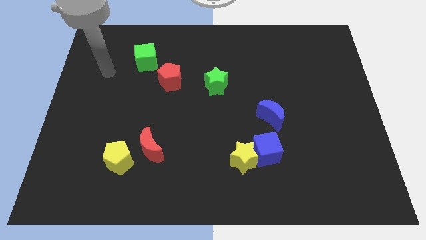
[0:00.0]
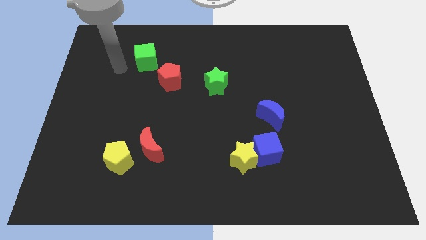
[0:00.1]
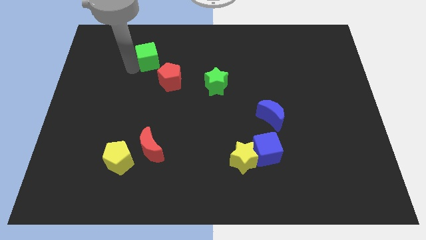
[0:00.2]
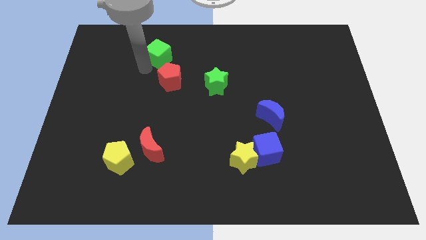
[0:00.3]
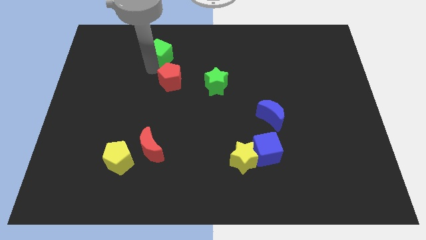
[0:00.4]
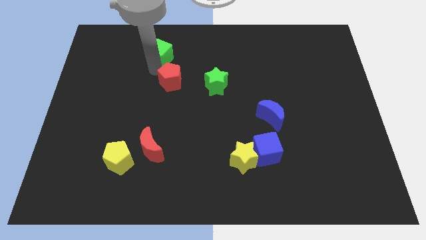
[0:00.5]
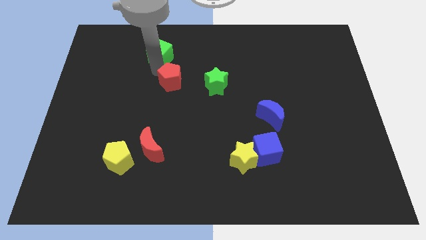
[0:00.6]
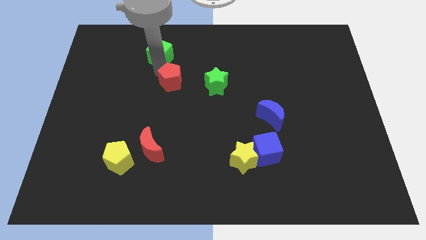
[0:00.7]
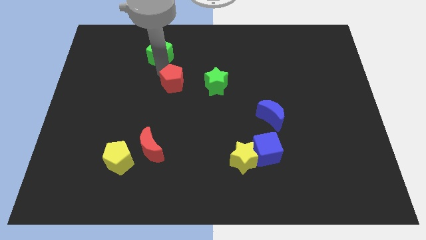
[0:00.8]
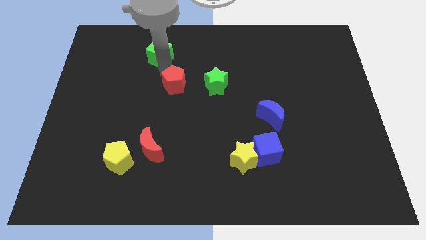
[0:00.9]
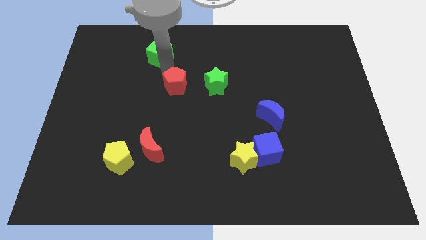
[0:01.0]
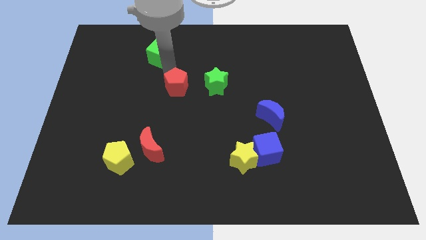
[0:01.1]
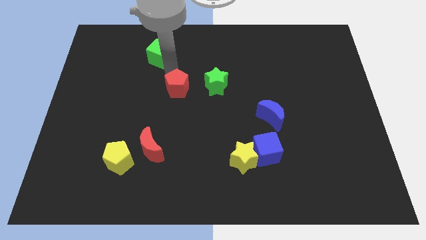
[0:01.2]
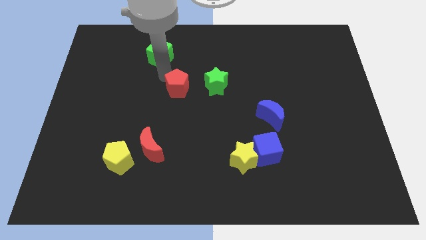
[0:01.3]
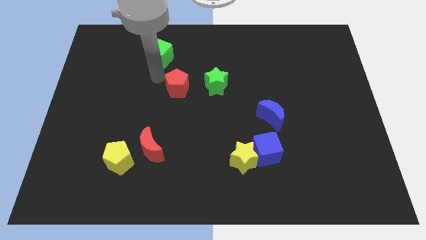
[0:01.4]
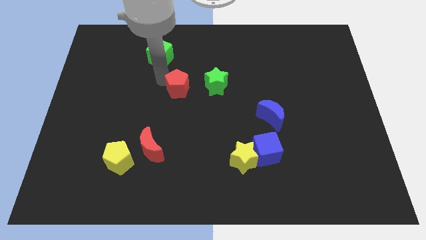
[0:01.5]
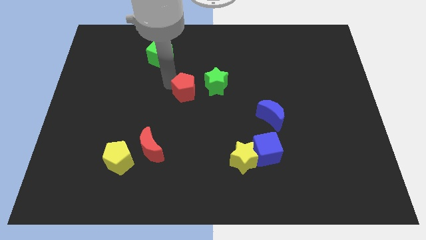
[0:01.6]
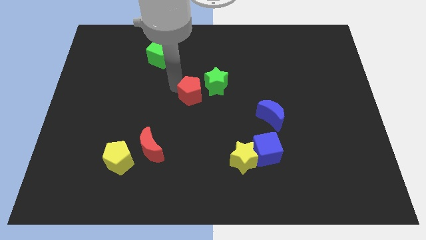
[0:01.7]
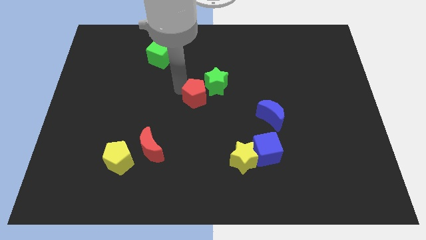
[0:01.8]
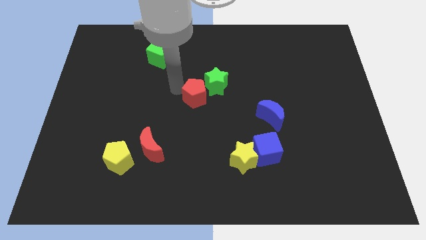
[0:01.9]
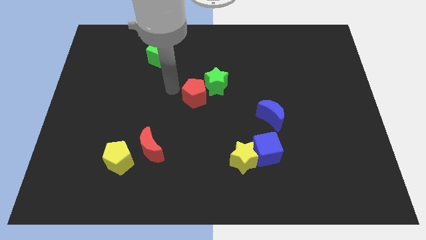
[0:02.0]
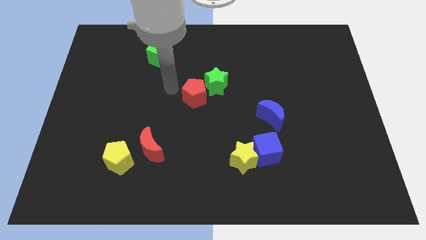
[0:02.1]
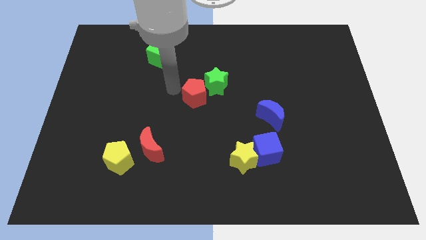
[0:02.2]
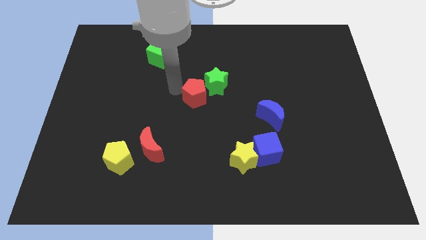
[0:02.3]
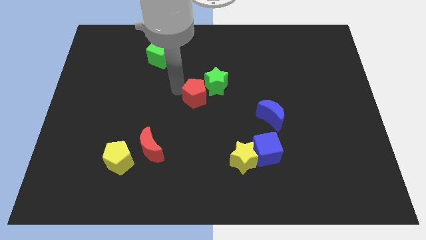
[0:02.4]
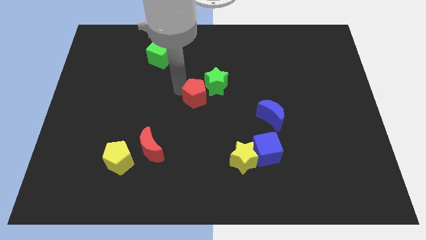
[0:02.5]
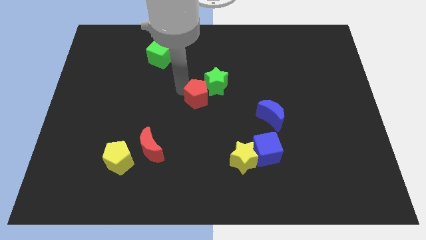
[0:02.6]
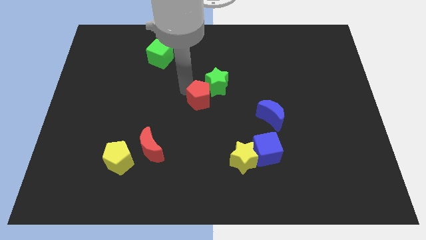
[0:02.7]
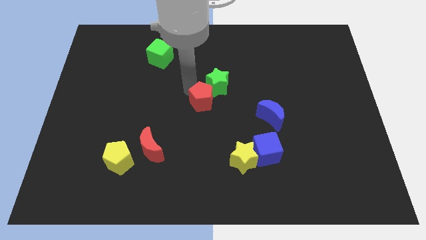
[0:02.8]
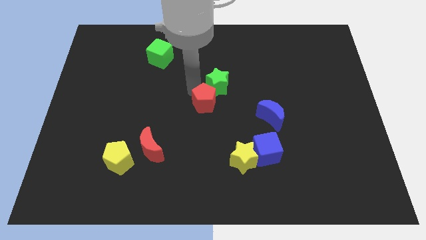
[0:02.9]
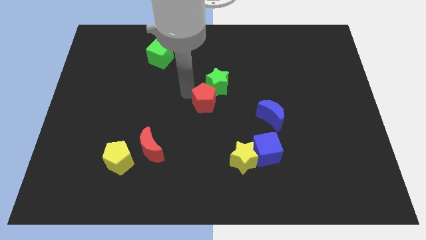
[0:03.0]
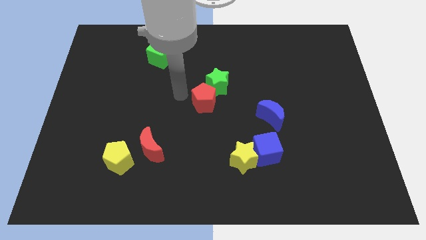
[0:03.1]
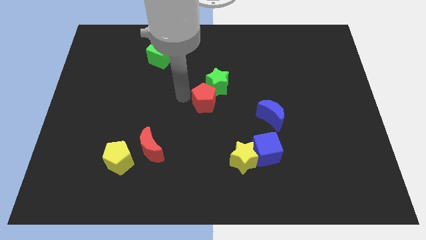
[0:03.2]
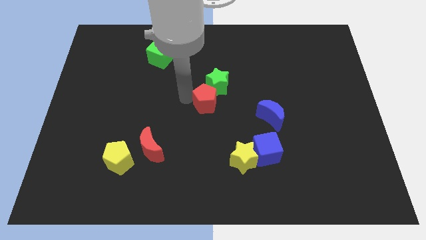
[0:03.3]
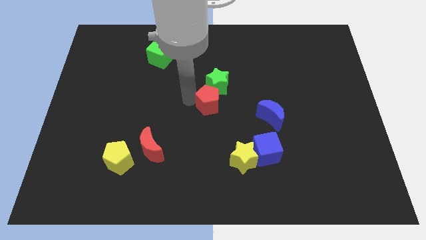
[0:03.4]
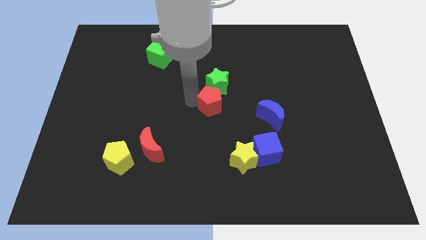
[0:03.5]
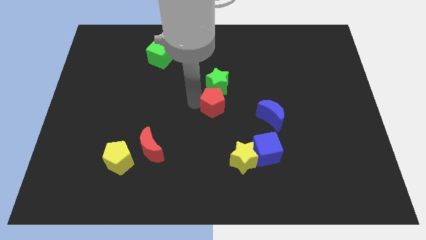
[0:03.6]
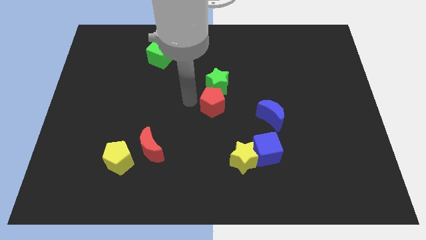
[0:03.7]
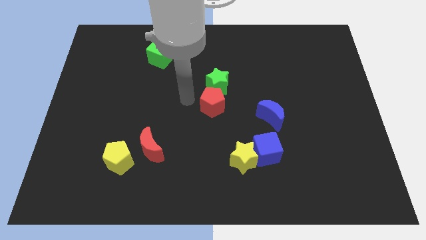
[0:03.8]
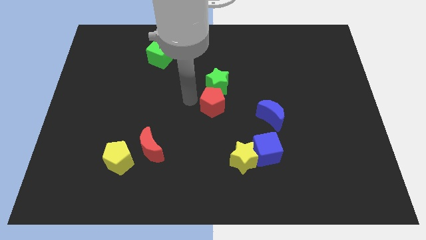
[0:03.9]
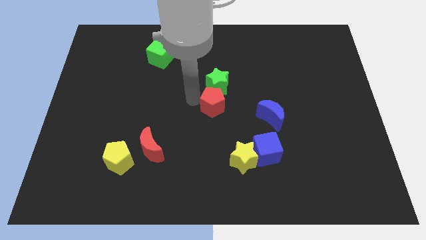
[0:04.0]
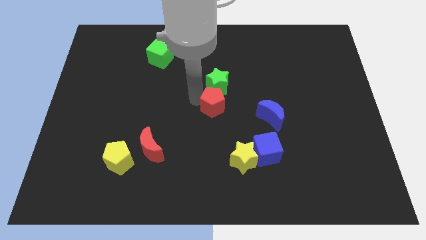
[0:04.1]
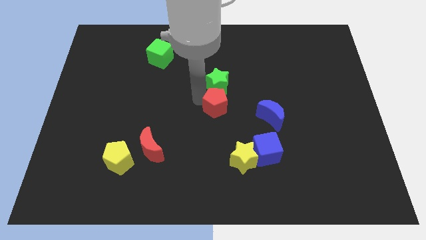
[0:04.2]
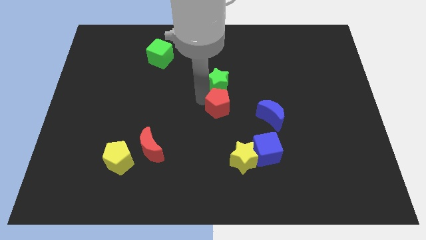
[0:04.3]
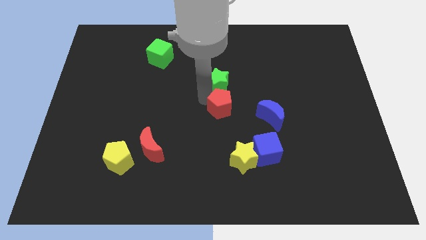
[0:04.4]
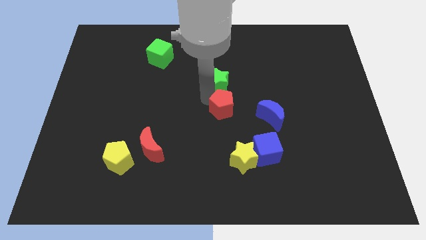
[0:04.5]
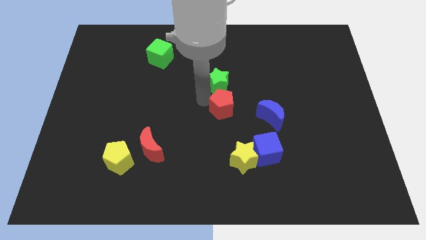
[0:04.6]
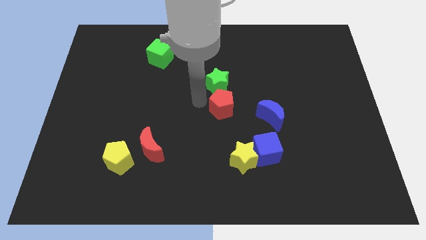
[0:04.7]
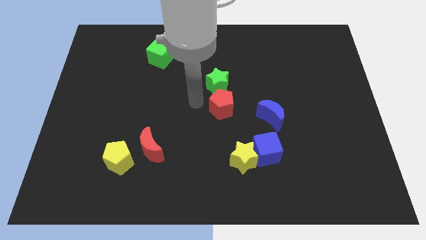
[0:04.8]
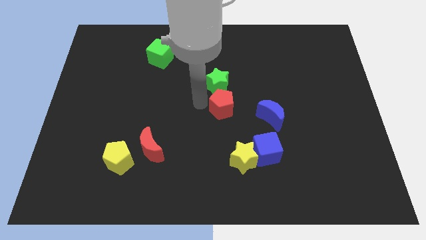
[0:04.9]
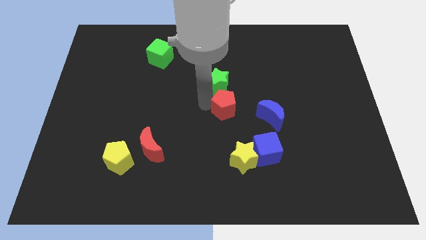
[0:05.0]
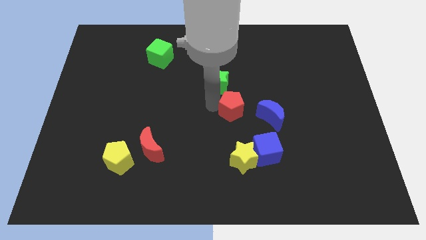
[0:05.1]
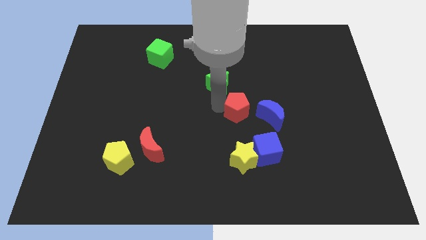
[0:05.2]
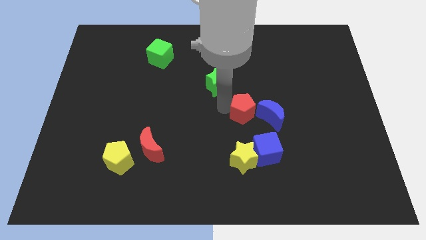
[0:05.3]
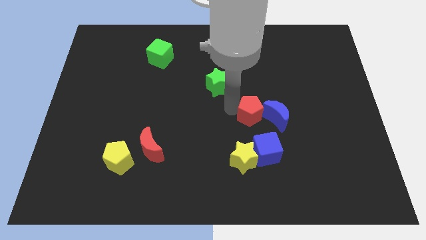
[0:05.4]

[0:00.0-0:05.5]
slide the red pentagon to the blue moon

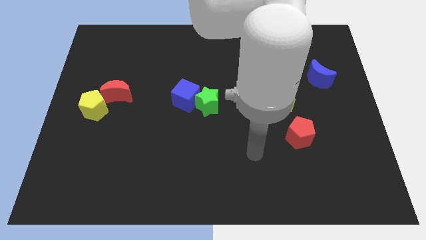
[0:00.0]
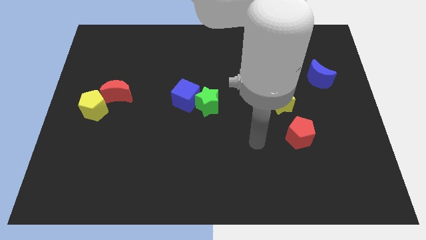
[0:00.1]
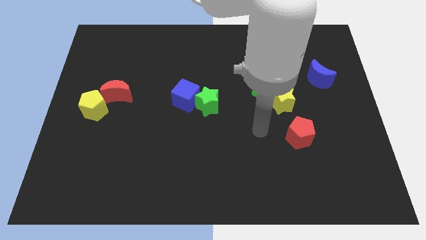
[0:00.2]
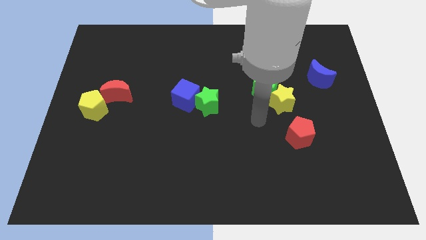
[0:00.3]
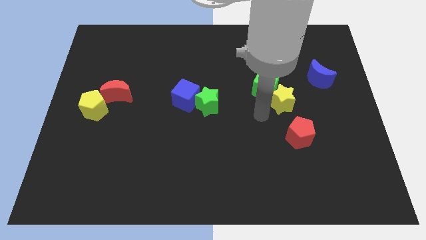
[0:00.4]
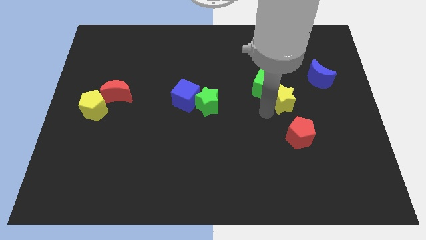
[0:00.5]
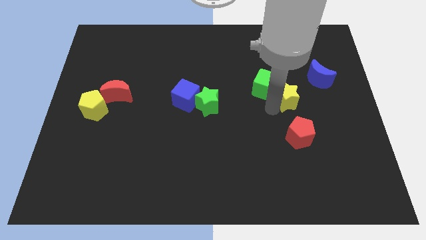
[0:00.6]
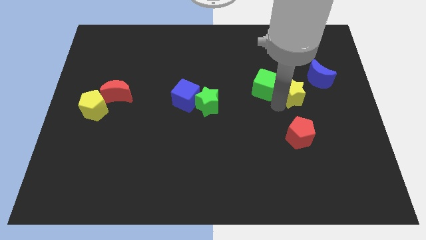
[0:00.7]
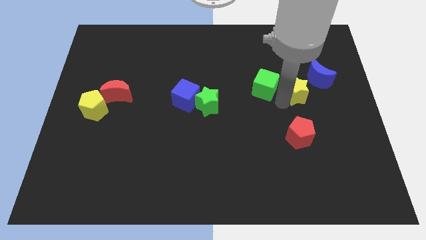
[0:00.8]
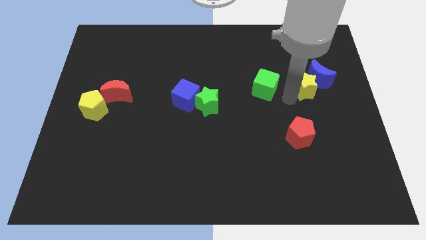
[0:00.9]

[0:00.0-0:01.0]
slide the yellow star towards the blue moon
